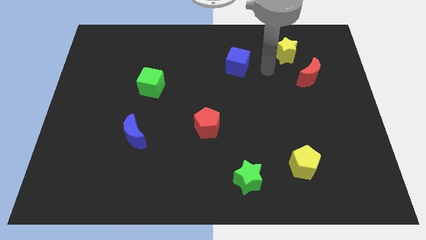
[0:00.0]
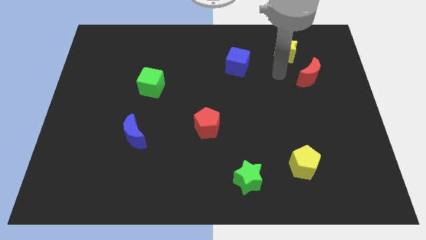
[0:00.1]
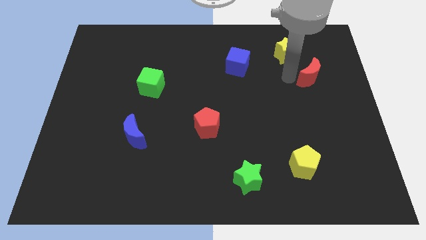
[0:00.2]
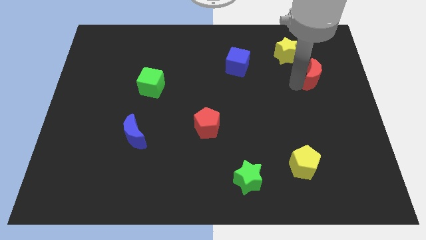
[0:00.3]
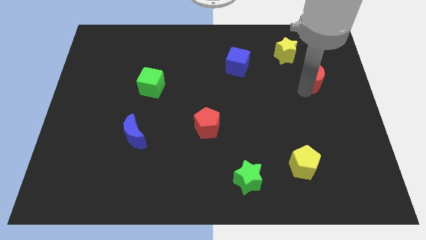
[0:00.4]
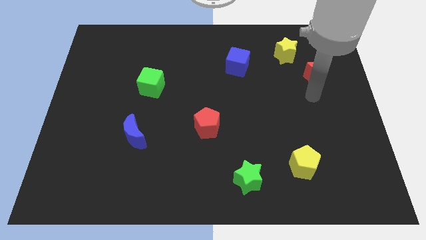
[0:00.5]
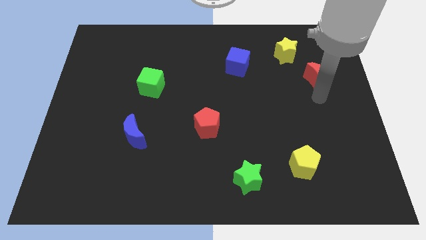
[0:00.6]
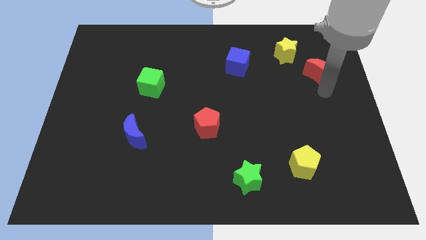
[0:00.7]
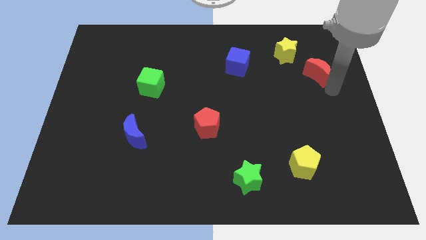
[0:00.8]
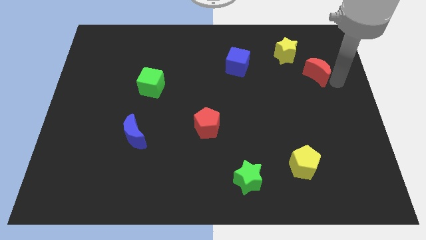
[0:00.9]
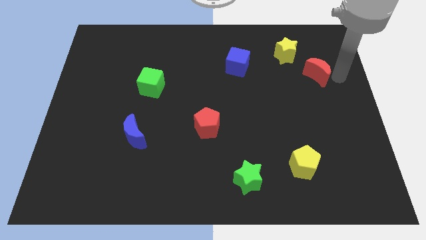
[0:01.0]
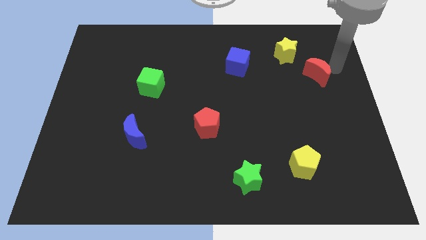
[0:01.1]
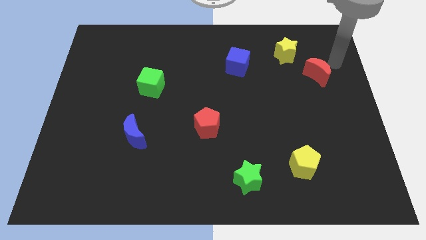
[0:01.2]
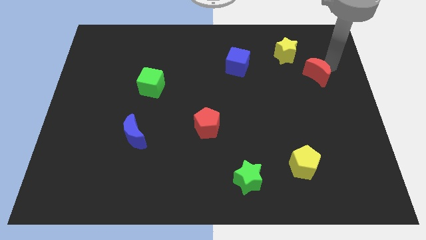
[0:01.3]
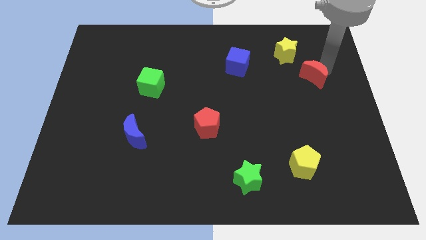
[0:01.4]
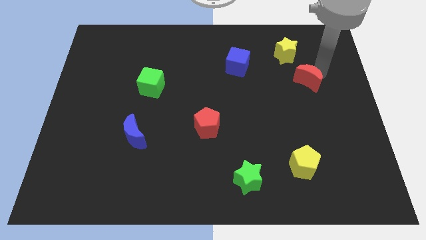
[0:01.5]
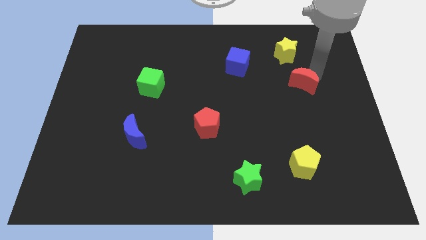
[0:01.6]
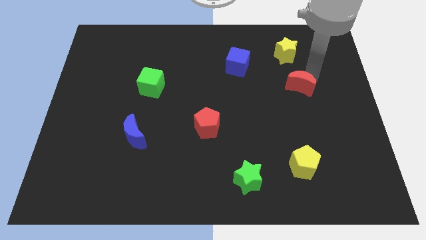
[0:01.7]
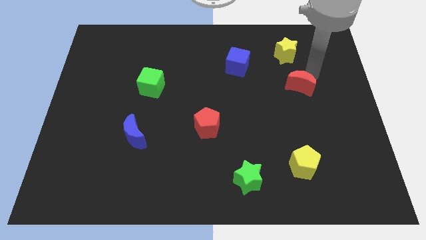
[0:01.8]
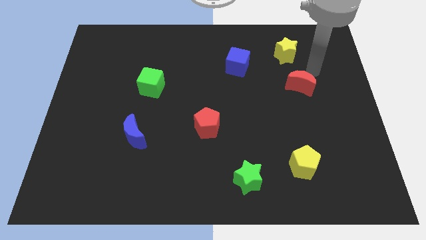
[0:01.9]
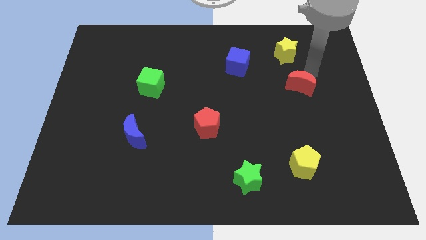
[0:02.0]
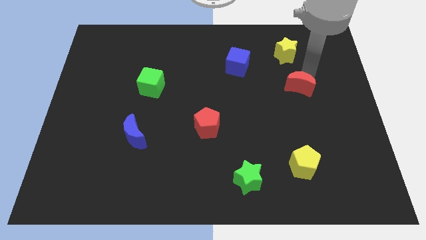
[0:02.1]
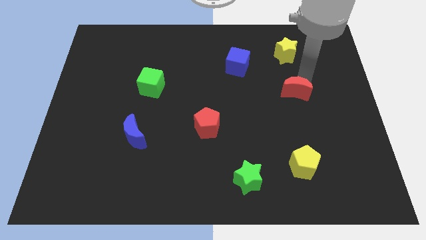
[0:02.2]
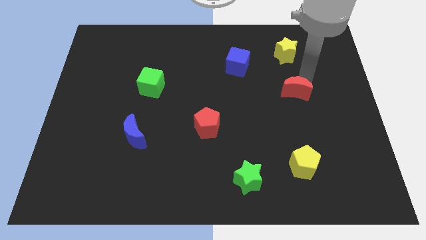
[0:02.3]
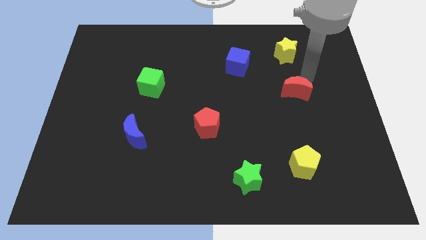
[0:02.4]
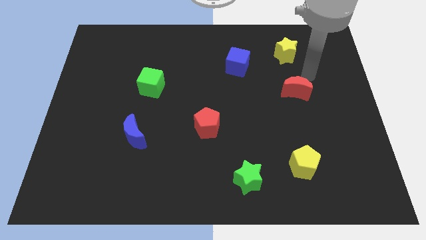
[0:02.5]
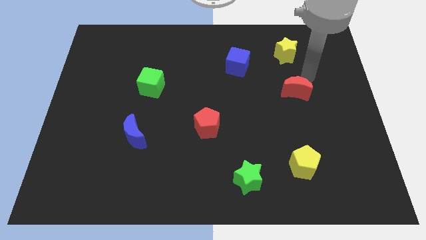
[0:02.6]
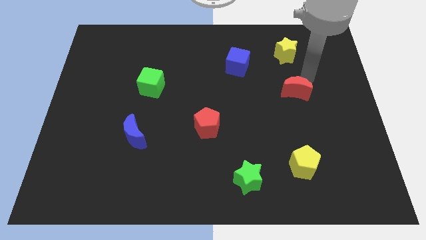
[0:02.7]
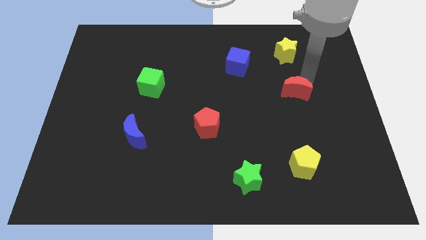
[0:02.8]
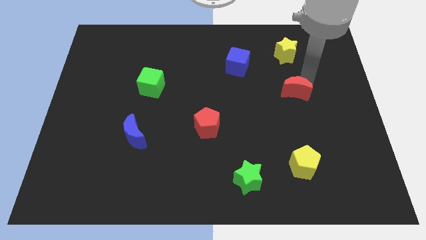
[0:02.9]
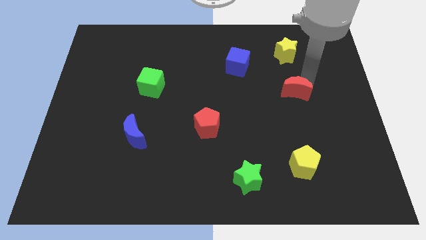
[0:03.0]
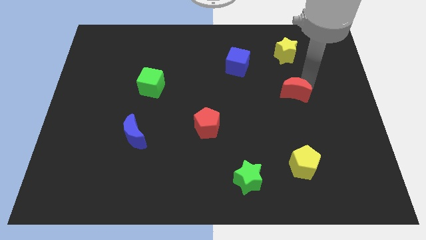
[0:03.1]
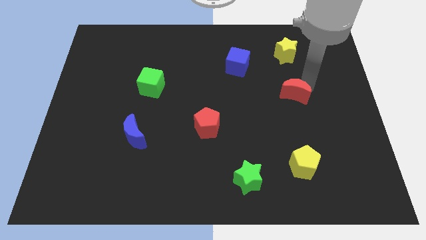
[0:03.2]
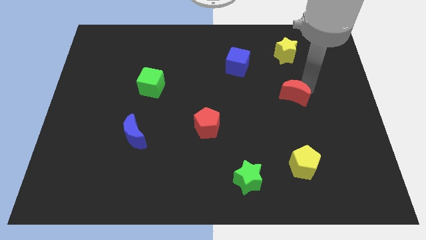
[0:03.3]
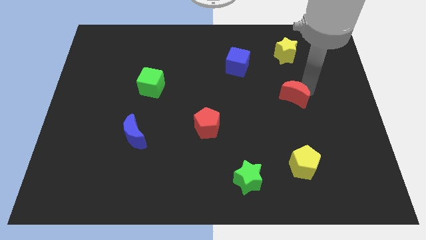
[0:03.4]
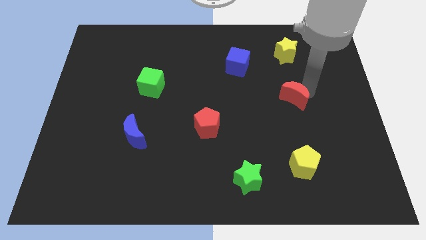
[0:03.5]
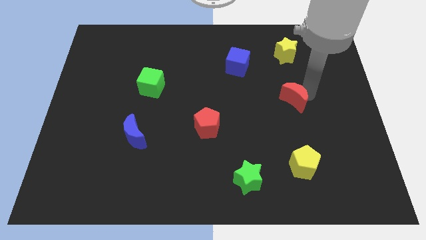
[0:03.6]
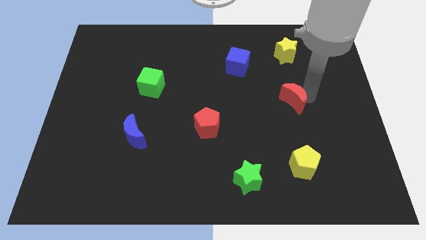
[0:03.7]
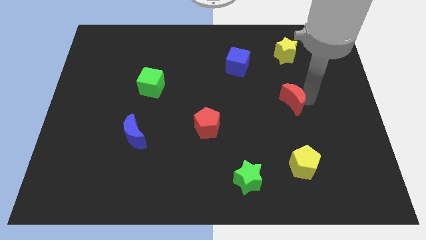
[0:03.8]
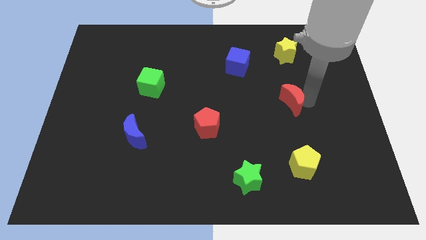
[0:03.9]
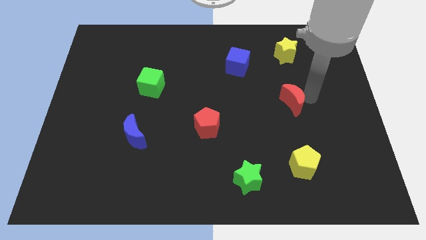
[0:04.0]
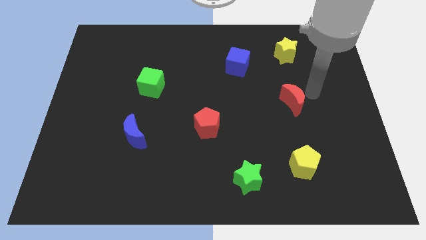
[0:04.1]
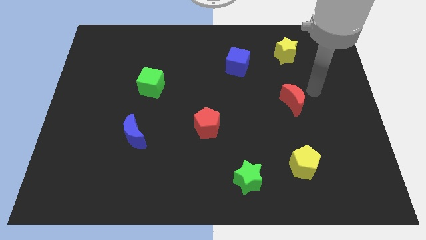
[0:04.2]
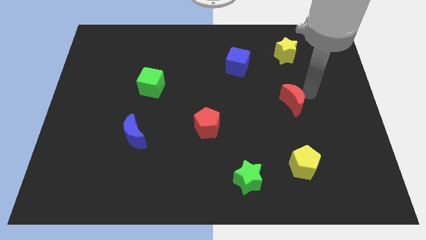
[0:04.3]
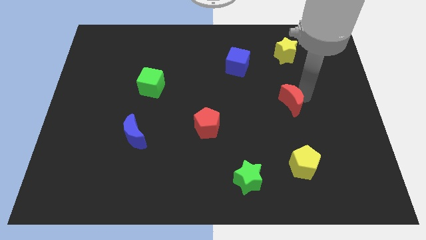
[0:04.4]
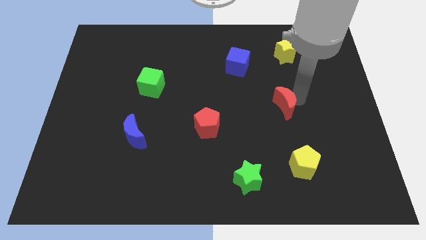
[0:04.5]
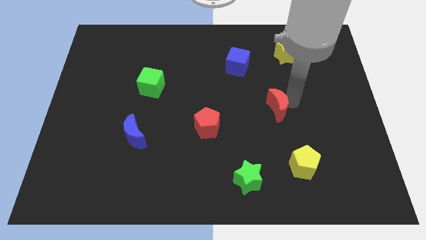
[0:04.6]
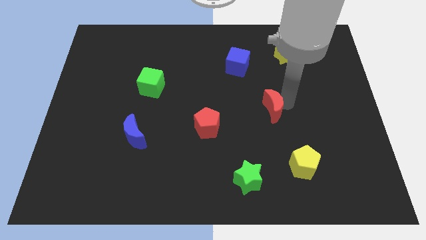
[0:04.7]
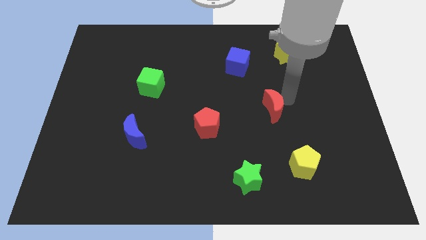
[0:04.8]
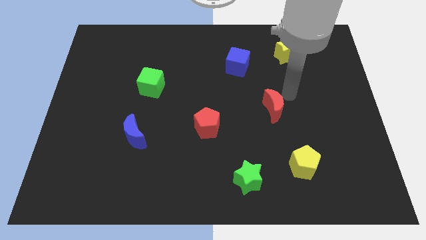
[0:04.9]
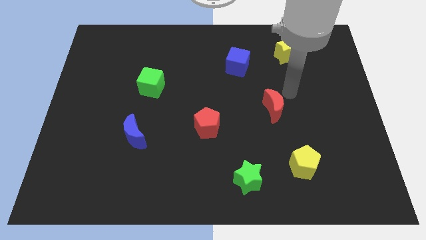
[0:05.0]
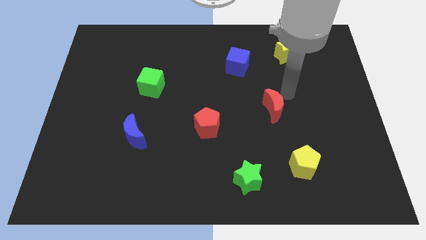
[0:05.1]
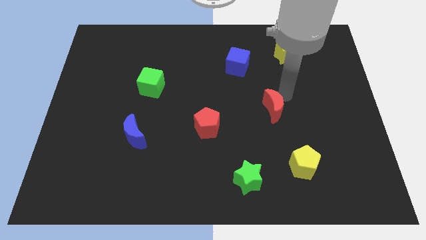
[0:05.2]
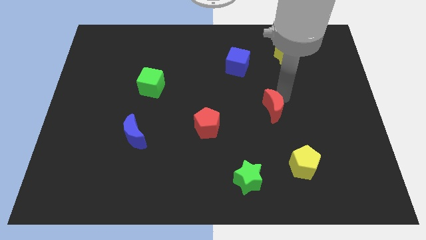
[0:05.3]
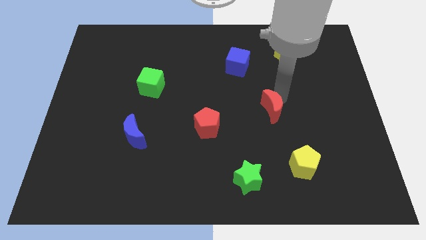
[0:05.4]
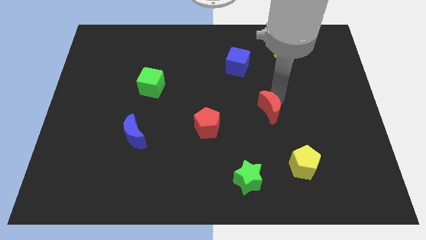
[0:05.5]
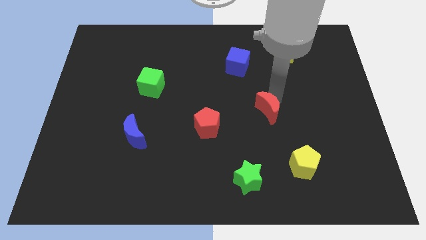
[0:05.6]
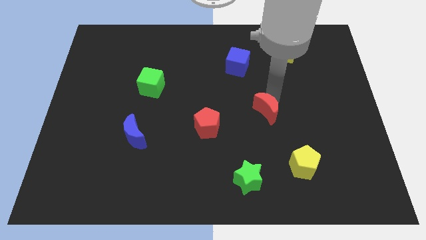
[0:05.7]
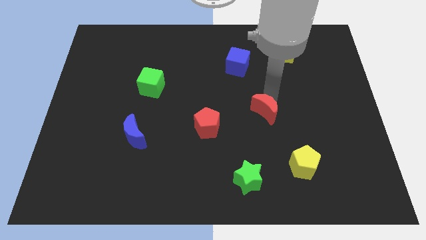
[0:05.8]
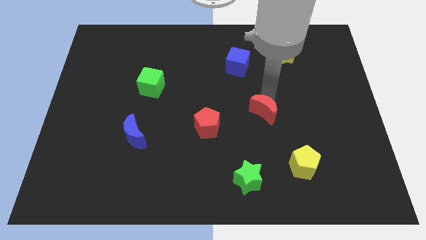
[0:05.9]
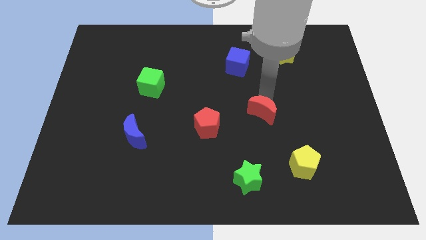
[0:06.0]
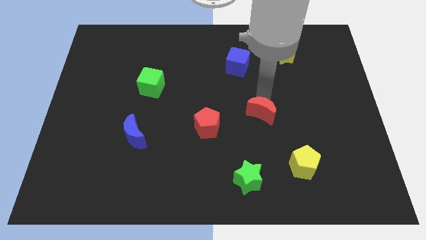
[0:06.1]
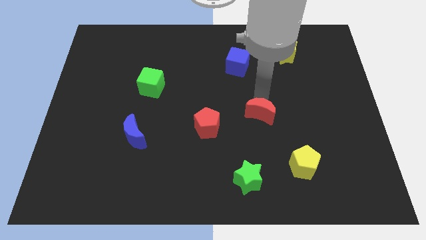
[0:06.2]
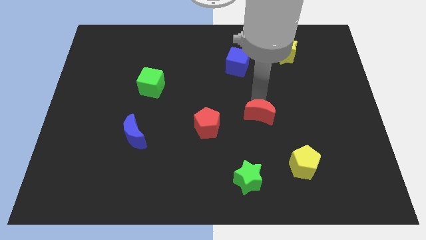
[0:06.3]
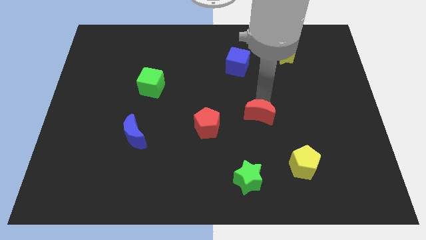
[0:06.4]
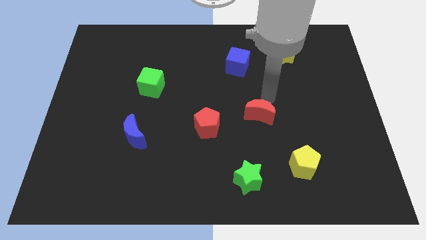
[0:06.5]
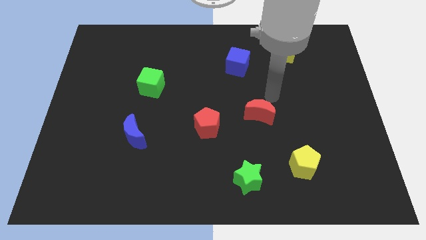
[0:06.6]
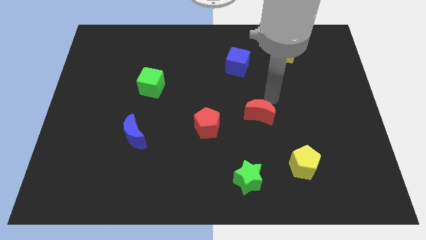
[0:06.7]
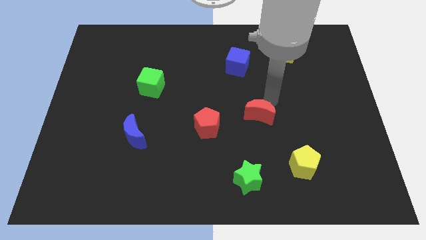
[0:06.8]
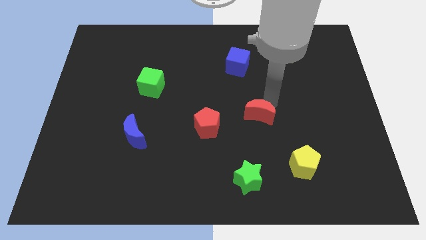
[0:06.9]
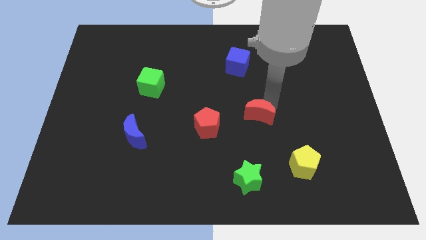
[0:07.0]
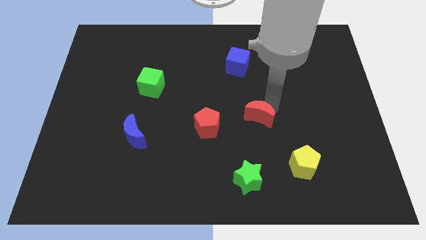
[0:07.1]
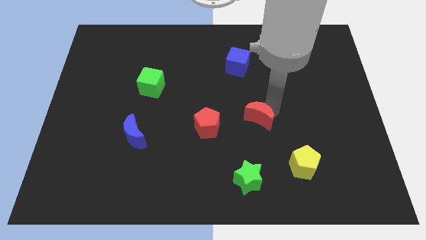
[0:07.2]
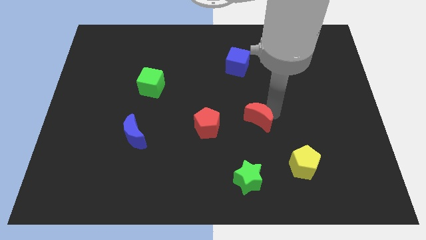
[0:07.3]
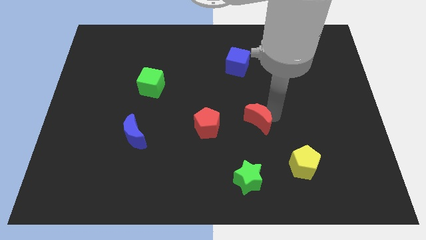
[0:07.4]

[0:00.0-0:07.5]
slide the red moon to the top of the green star
